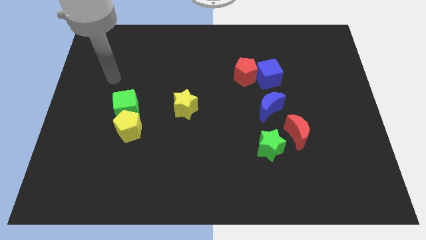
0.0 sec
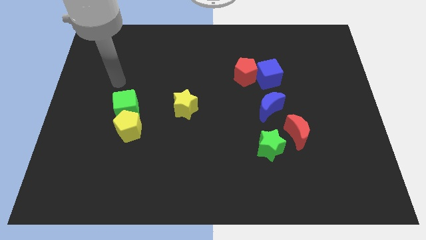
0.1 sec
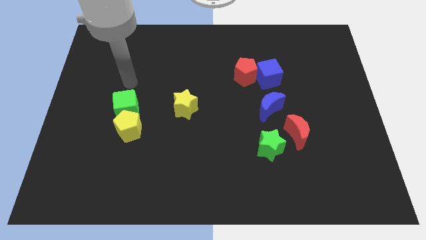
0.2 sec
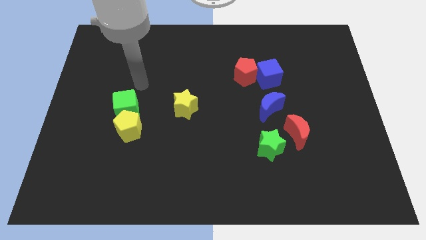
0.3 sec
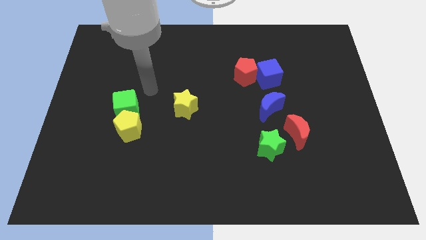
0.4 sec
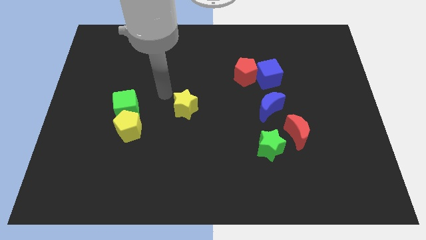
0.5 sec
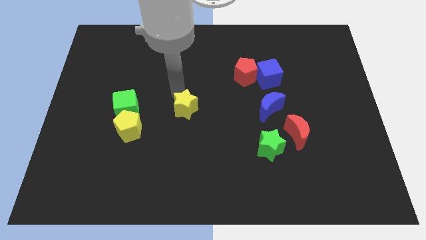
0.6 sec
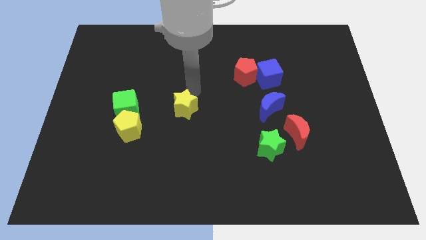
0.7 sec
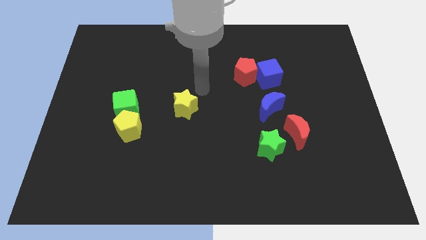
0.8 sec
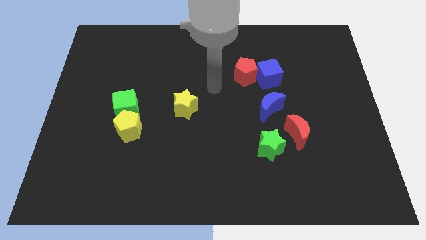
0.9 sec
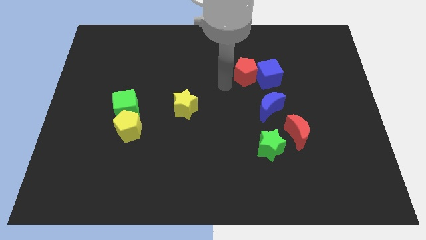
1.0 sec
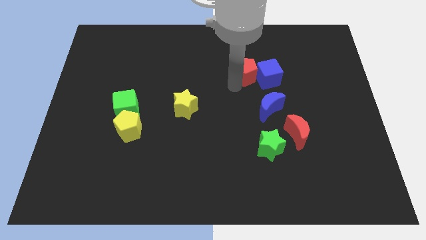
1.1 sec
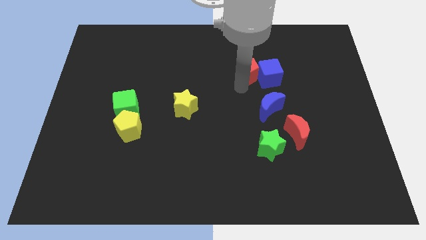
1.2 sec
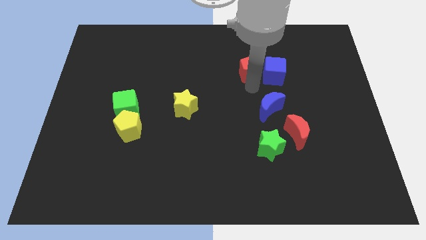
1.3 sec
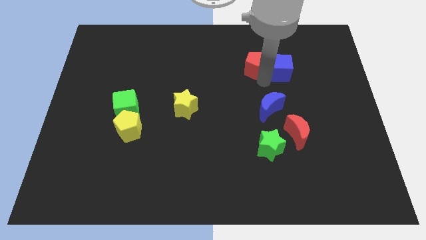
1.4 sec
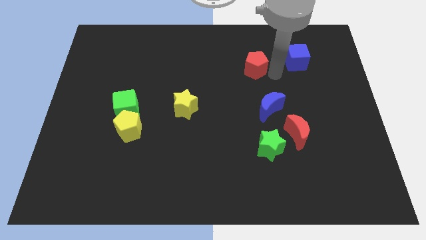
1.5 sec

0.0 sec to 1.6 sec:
pull the red pentagon apart from the blue cube

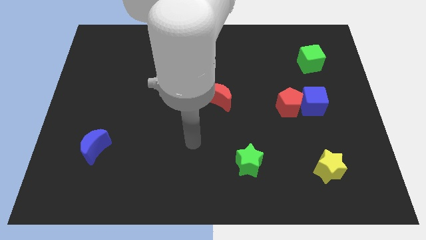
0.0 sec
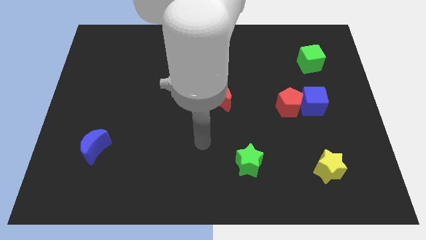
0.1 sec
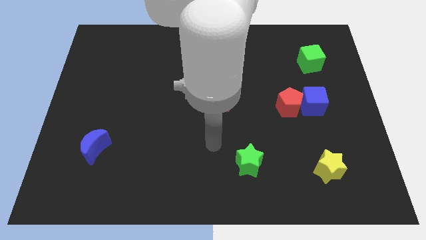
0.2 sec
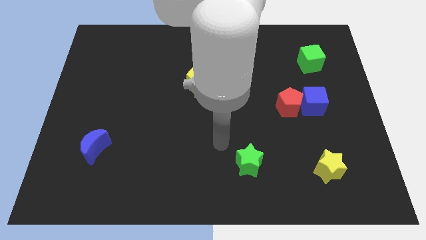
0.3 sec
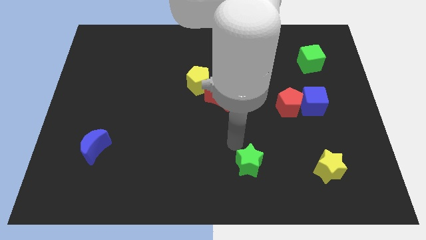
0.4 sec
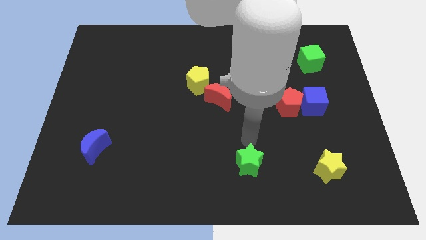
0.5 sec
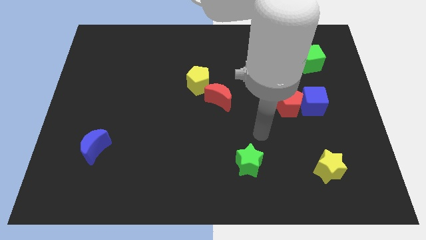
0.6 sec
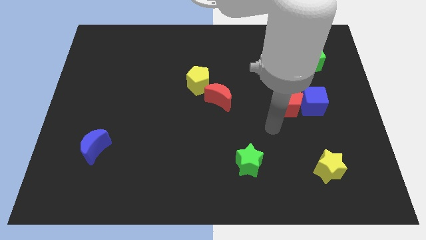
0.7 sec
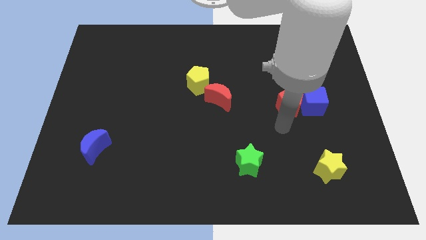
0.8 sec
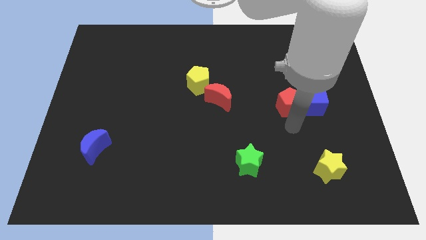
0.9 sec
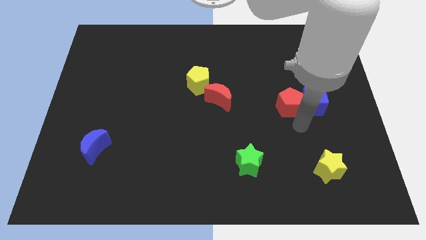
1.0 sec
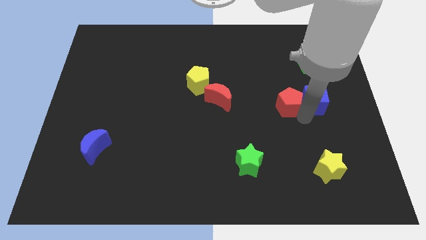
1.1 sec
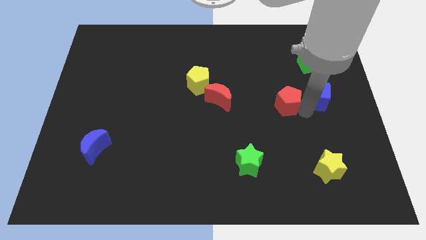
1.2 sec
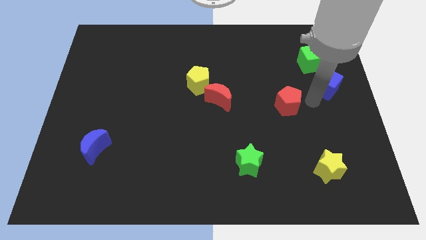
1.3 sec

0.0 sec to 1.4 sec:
separate the red pentagon from the blue cube

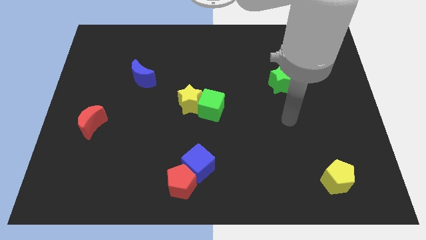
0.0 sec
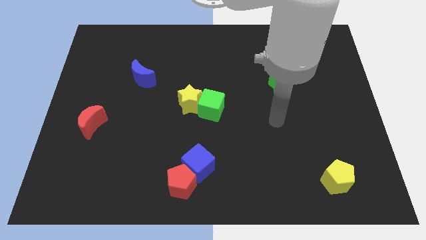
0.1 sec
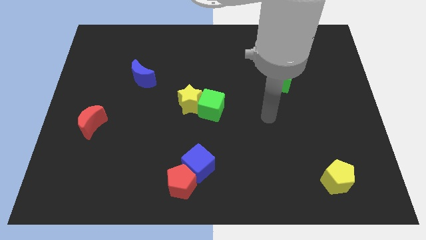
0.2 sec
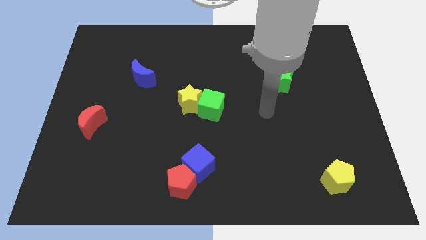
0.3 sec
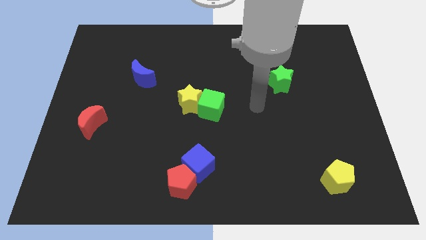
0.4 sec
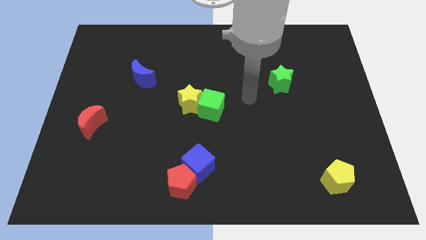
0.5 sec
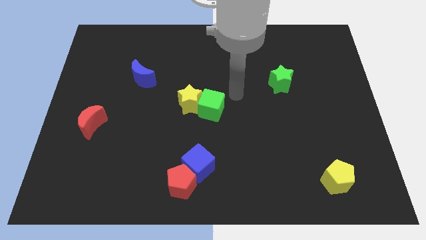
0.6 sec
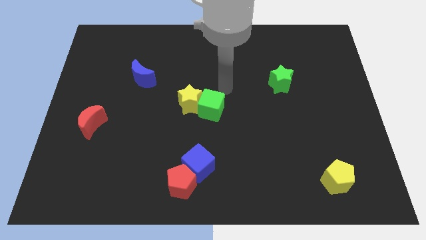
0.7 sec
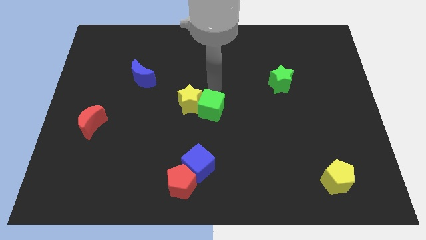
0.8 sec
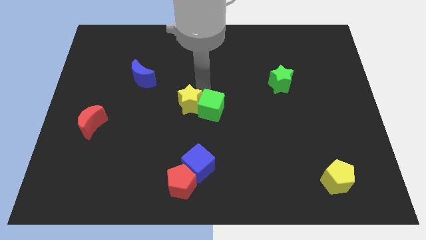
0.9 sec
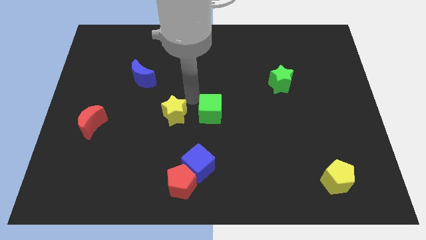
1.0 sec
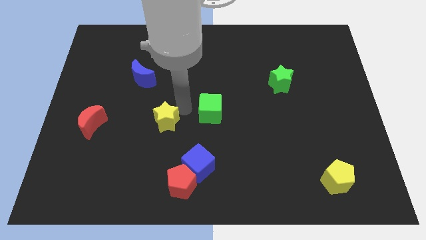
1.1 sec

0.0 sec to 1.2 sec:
separate the green cube from the yellow star

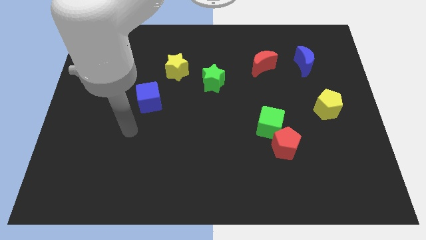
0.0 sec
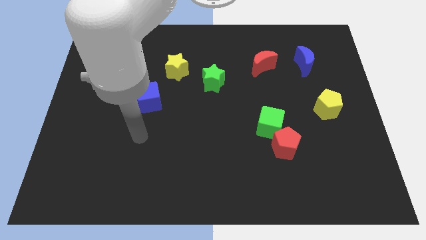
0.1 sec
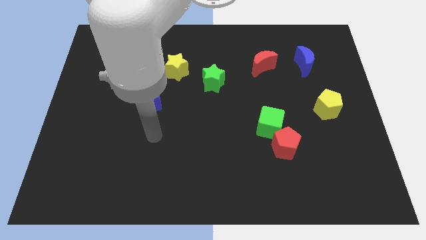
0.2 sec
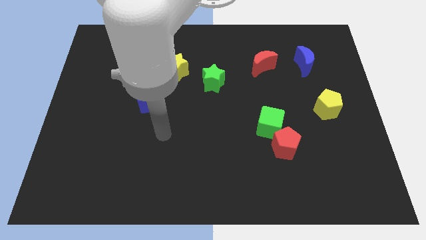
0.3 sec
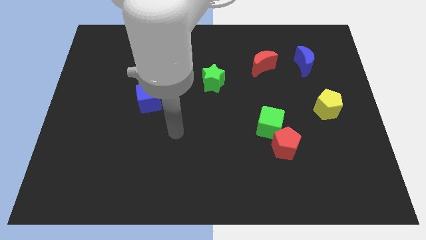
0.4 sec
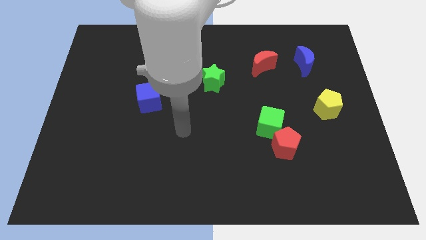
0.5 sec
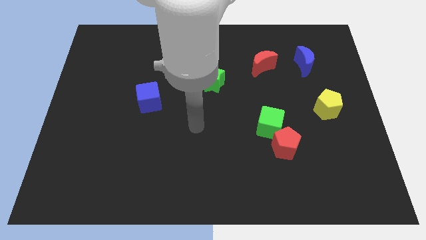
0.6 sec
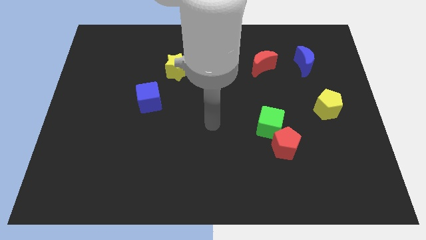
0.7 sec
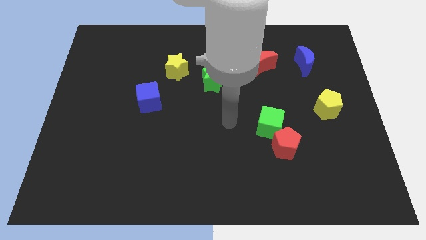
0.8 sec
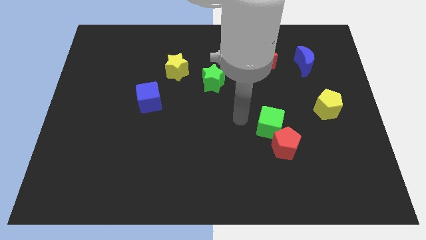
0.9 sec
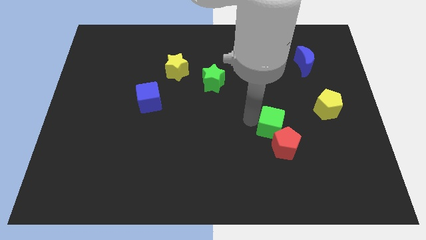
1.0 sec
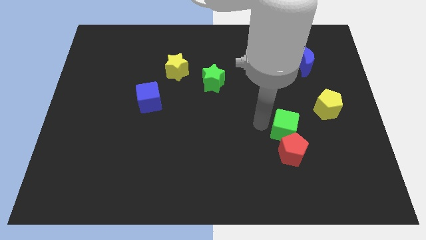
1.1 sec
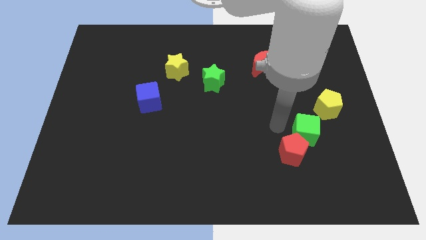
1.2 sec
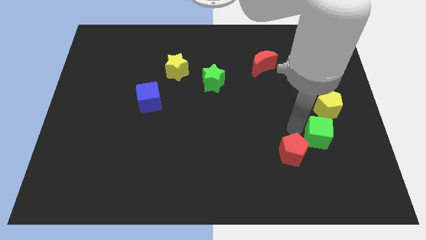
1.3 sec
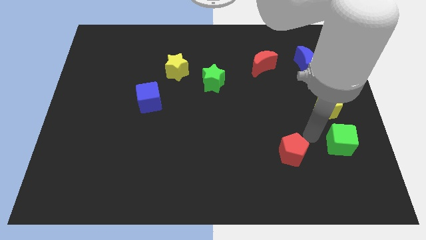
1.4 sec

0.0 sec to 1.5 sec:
move the red pentagon away from the green cube

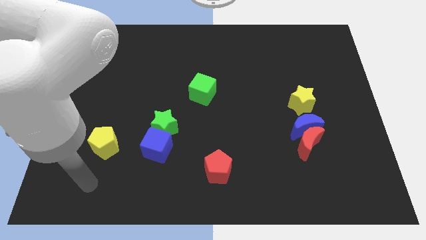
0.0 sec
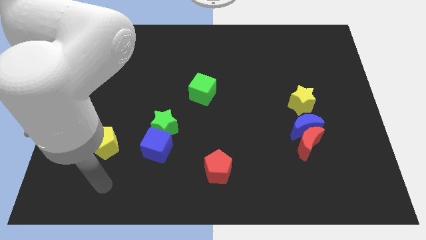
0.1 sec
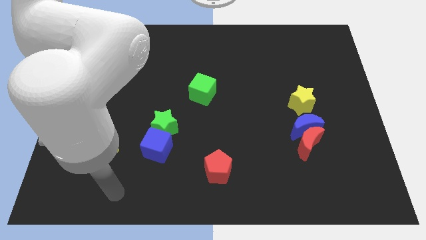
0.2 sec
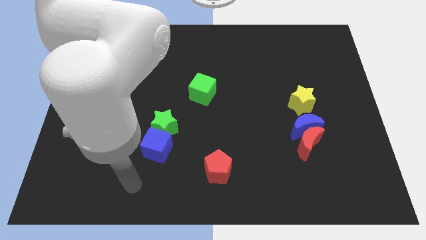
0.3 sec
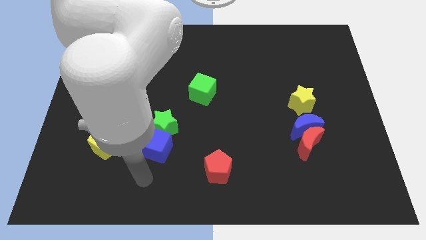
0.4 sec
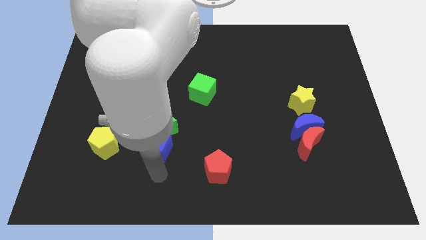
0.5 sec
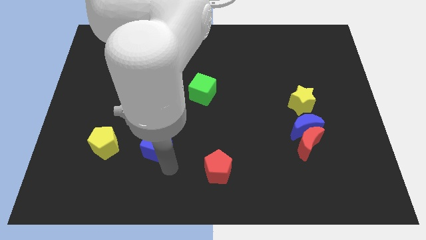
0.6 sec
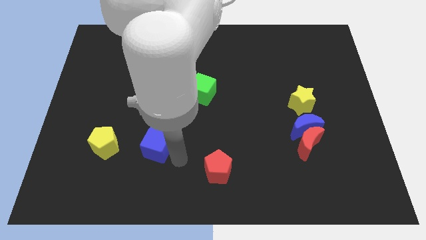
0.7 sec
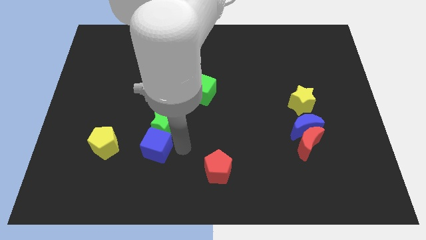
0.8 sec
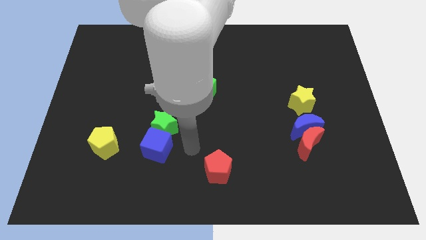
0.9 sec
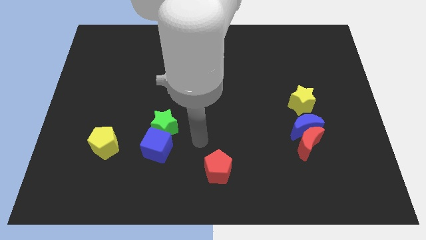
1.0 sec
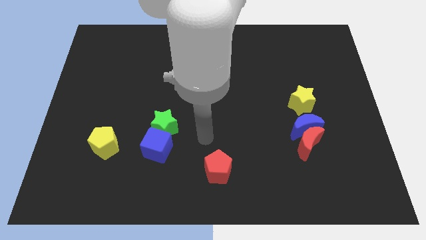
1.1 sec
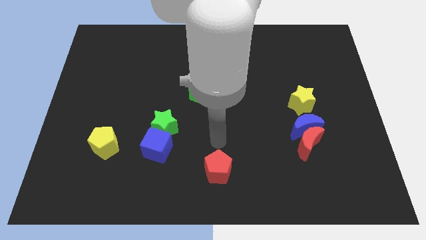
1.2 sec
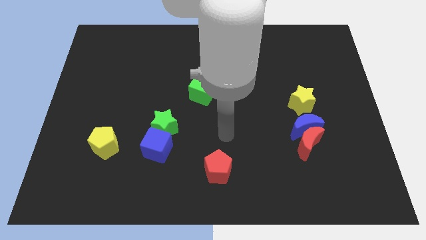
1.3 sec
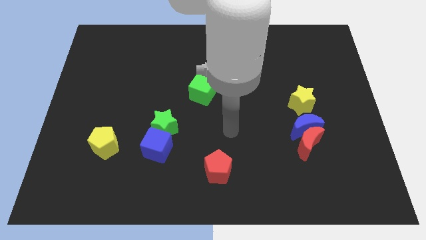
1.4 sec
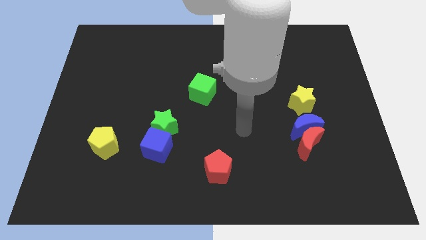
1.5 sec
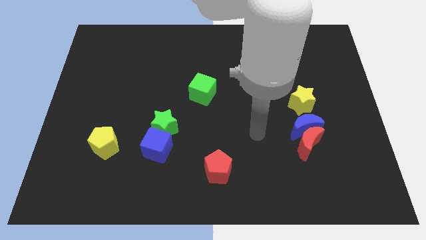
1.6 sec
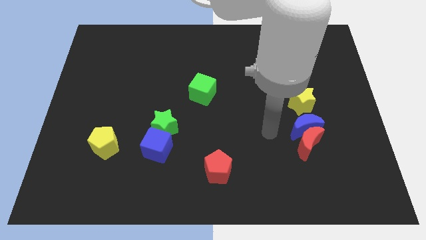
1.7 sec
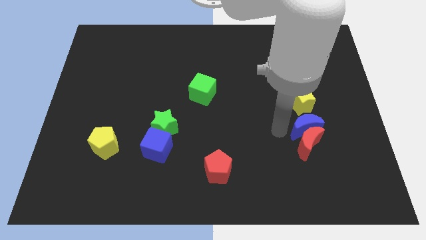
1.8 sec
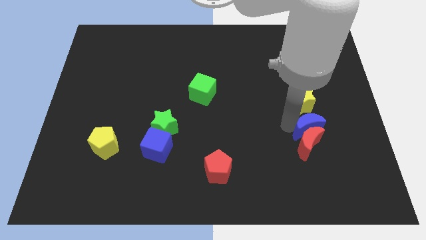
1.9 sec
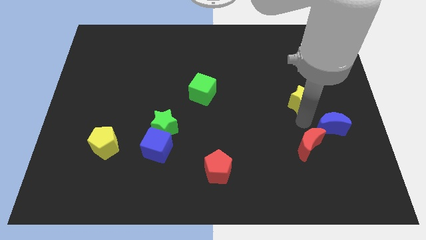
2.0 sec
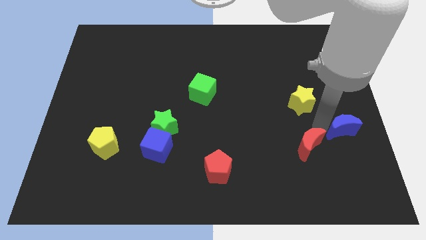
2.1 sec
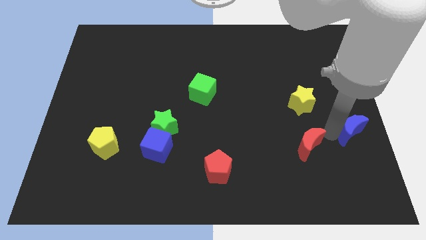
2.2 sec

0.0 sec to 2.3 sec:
pull the red moon apart from the blue moon

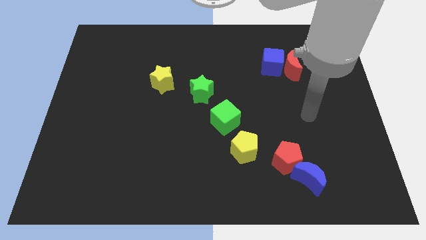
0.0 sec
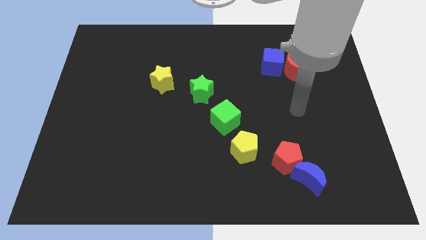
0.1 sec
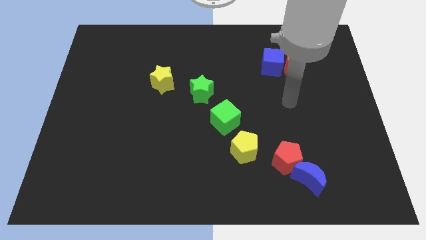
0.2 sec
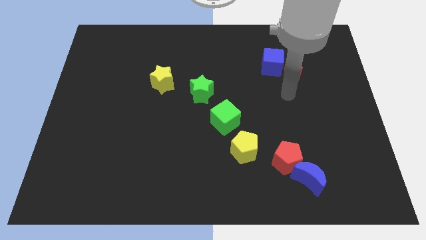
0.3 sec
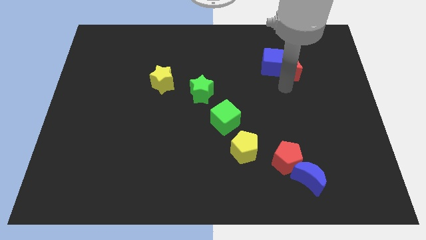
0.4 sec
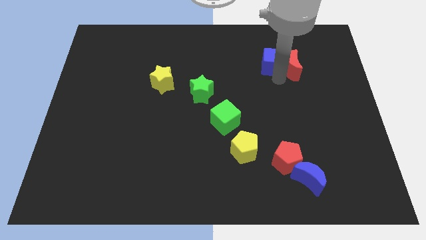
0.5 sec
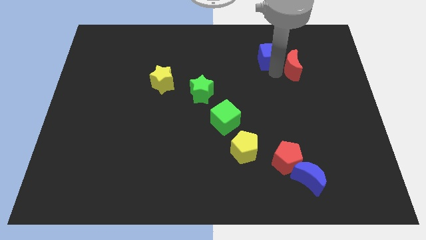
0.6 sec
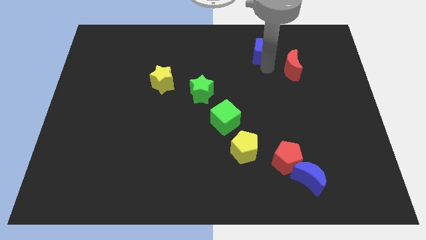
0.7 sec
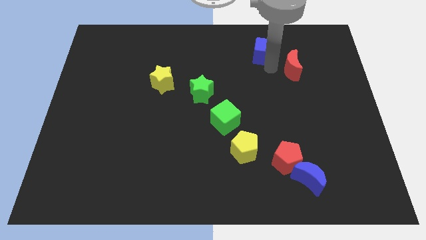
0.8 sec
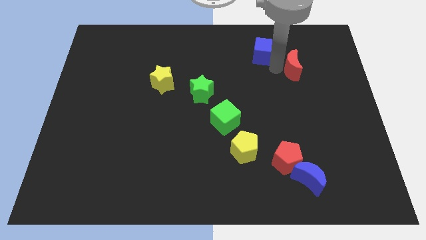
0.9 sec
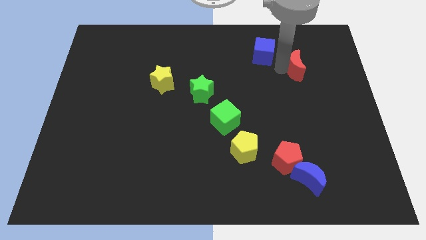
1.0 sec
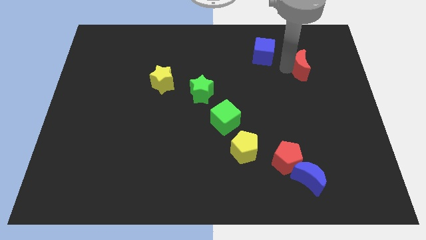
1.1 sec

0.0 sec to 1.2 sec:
separate the red moon from the blue cube

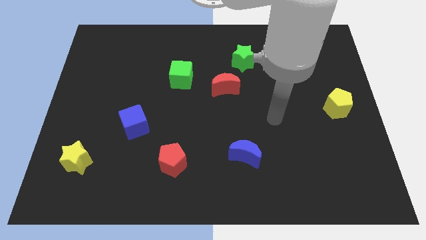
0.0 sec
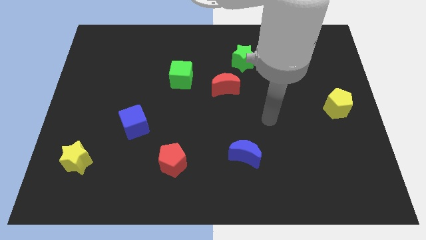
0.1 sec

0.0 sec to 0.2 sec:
move the red moon away from the green star
